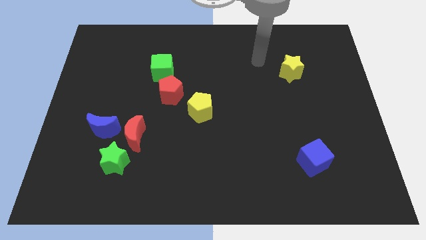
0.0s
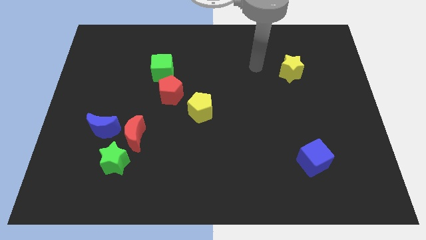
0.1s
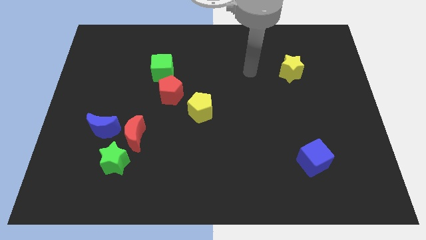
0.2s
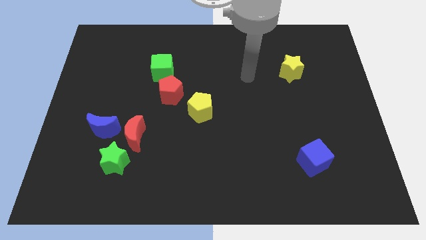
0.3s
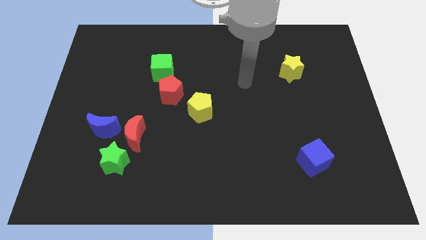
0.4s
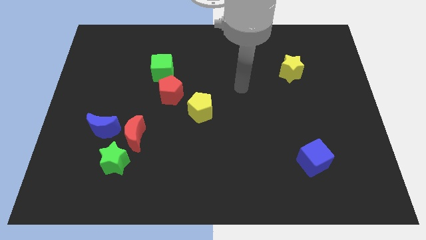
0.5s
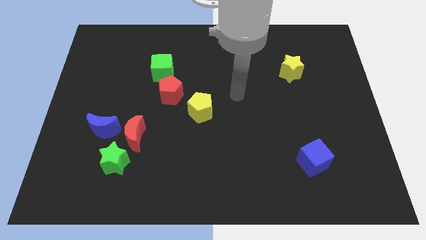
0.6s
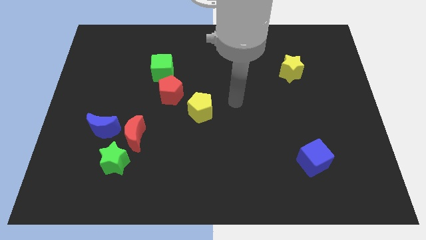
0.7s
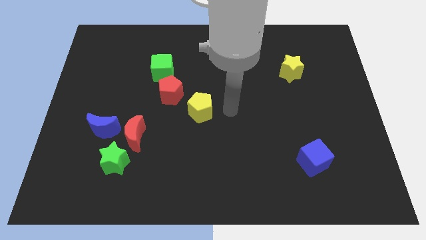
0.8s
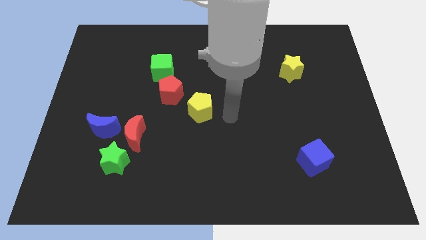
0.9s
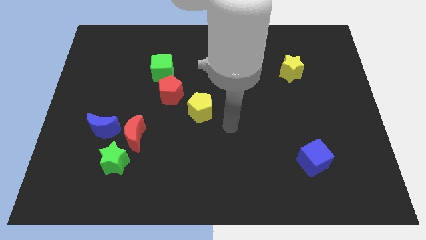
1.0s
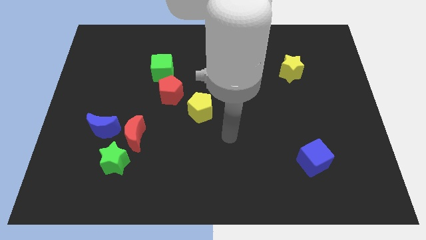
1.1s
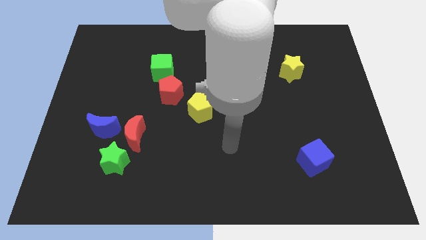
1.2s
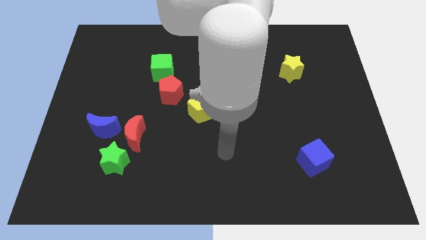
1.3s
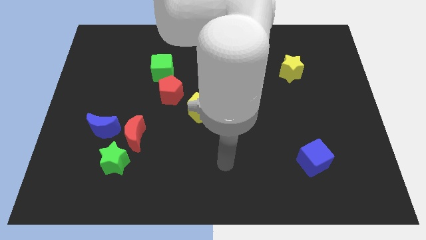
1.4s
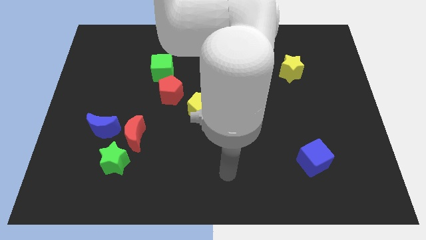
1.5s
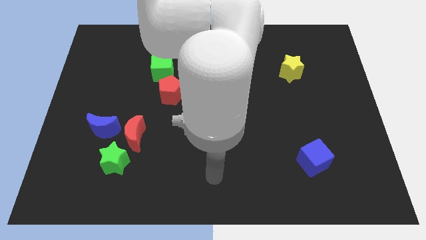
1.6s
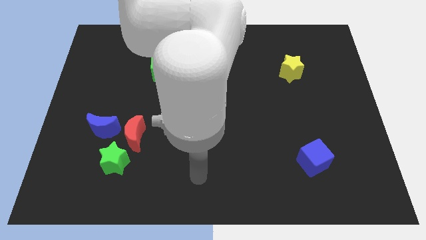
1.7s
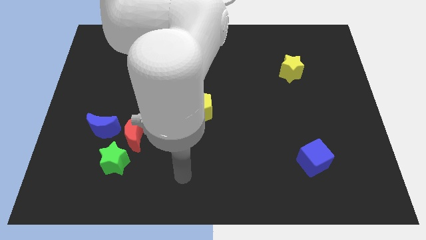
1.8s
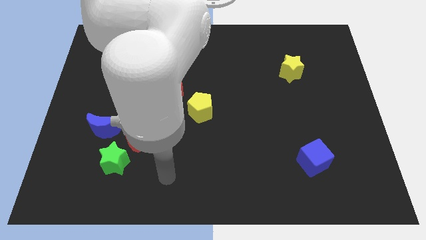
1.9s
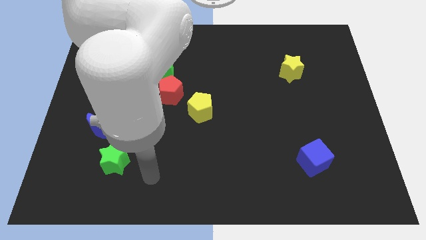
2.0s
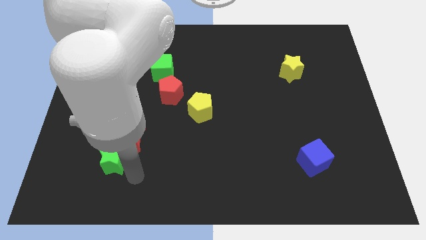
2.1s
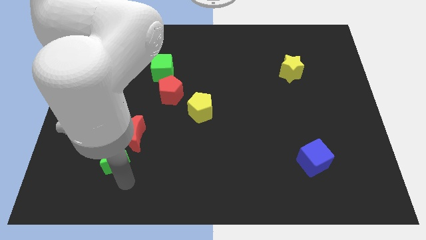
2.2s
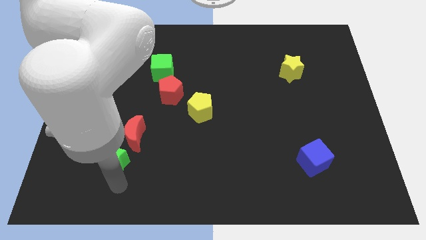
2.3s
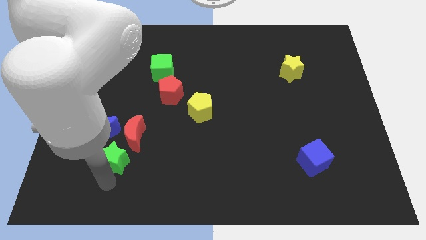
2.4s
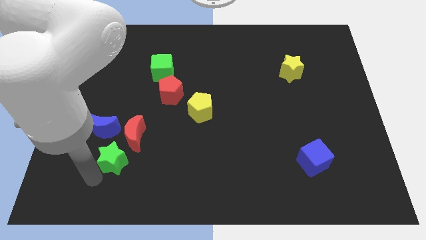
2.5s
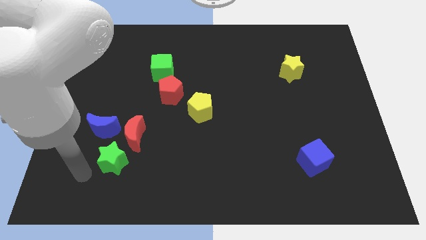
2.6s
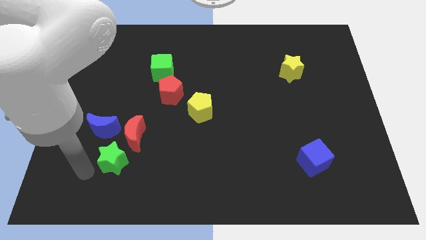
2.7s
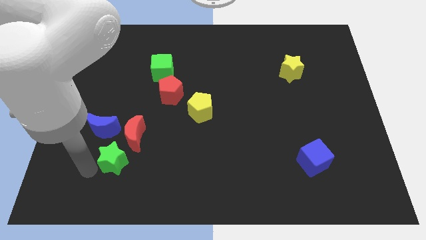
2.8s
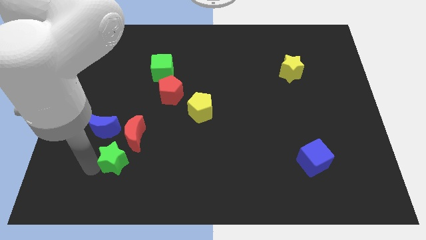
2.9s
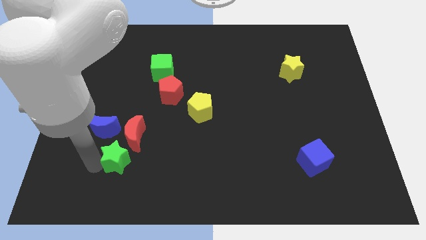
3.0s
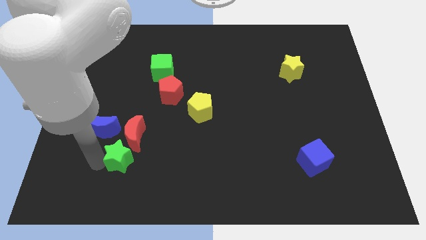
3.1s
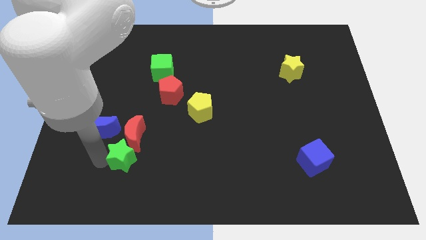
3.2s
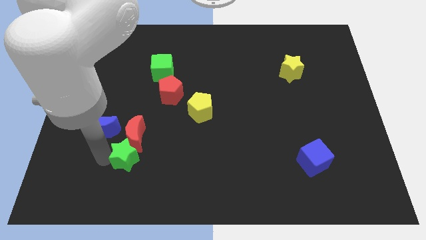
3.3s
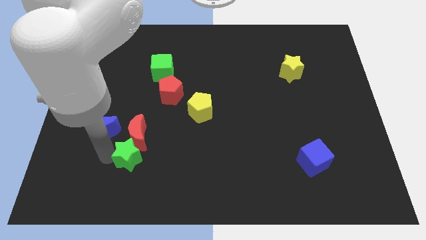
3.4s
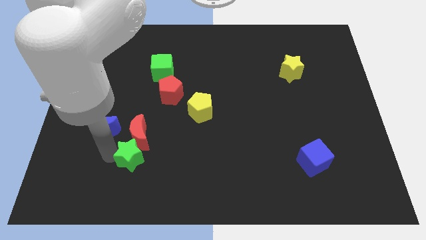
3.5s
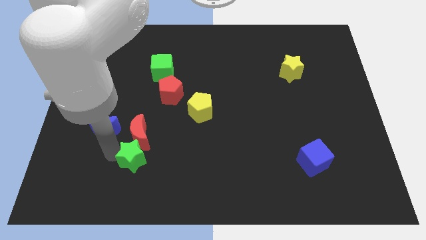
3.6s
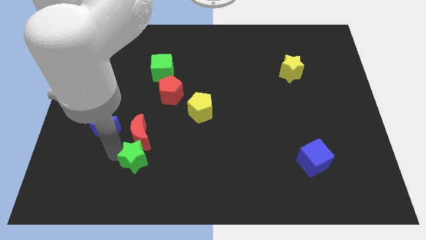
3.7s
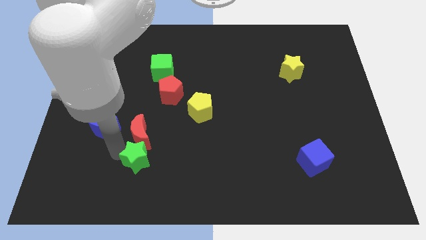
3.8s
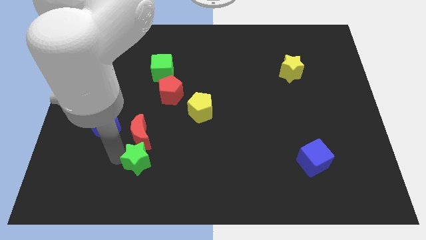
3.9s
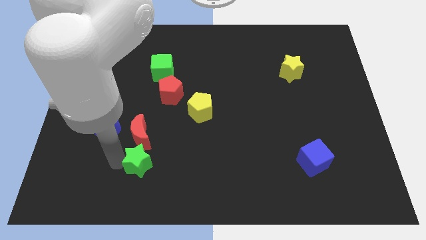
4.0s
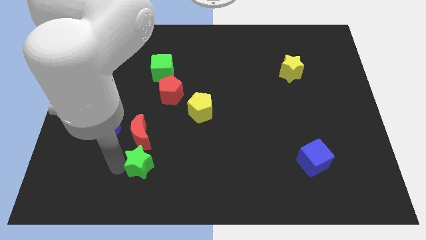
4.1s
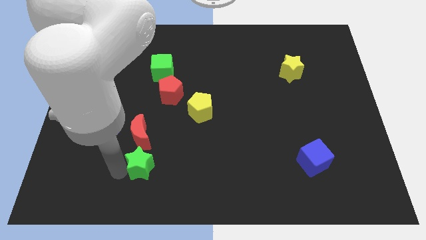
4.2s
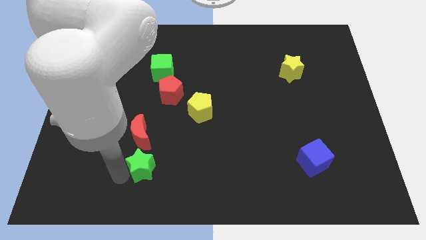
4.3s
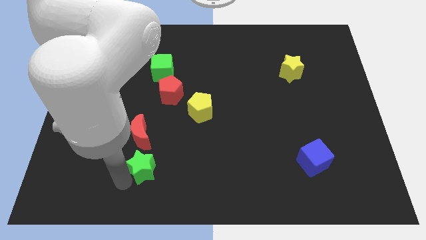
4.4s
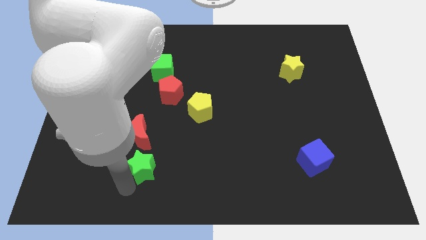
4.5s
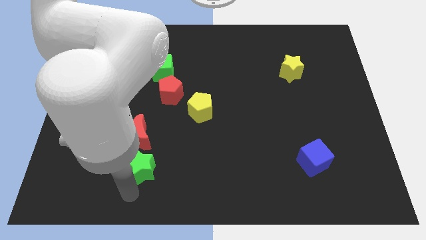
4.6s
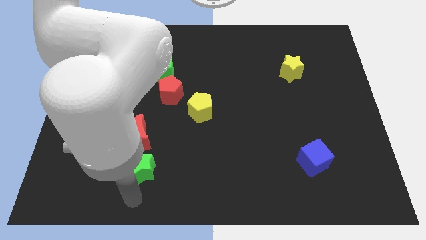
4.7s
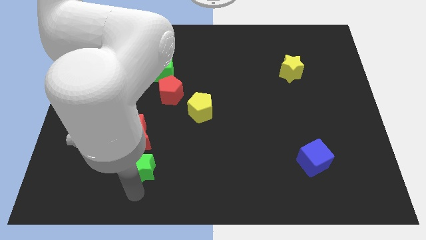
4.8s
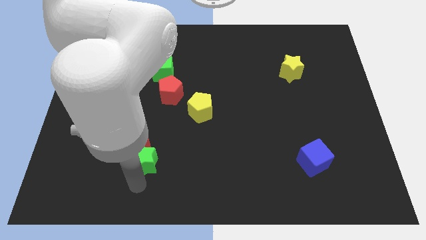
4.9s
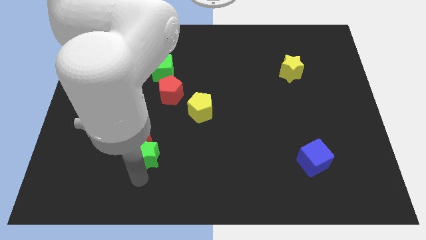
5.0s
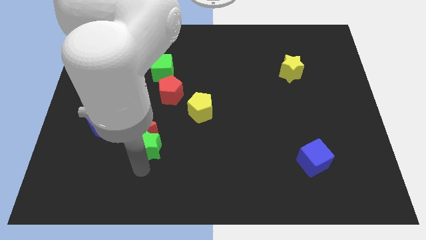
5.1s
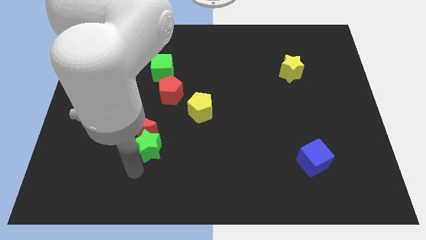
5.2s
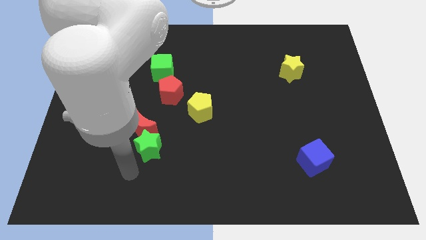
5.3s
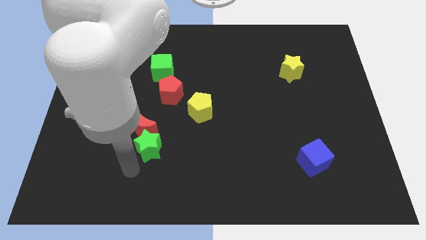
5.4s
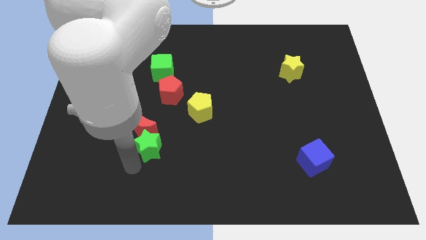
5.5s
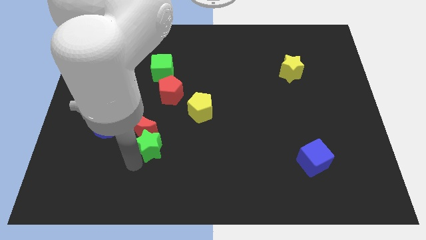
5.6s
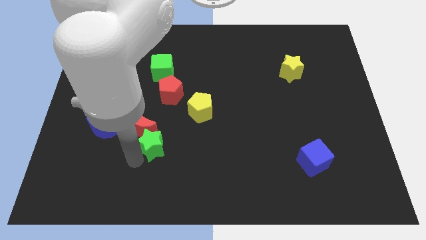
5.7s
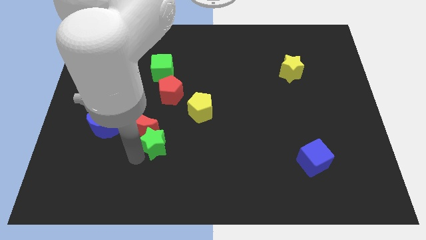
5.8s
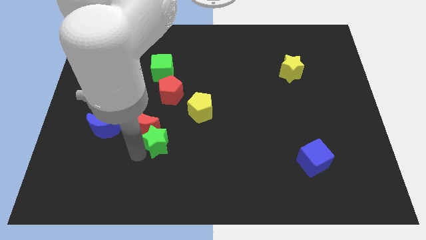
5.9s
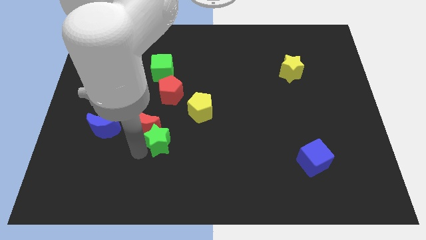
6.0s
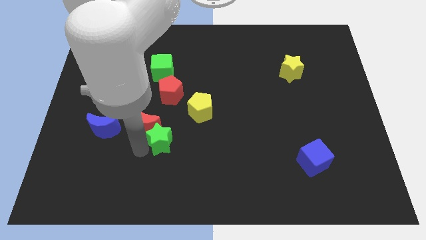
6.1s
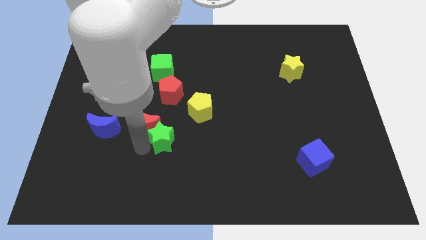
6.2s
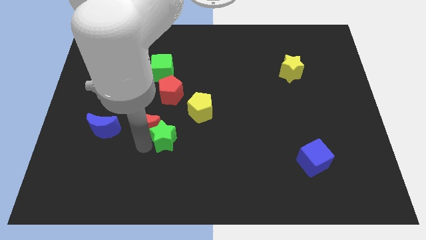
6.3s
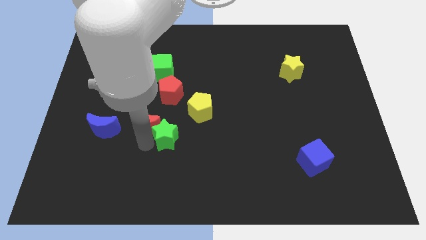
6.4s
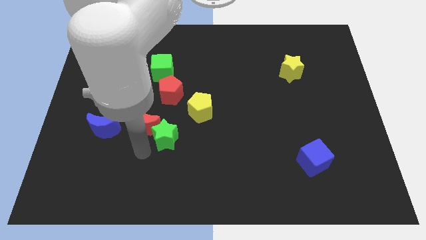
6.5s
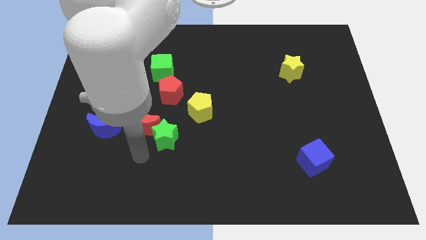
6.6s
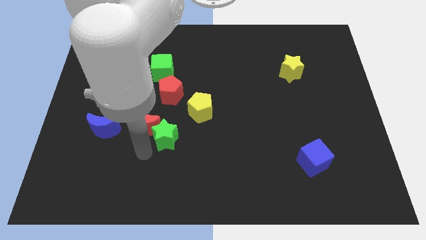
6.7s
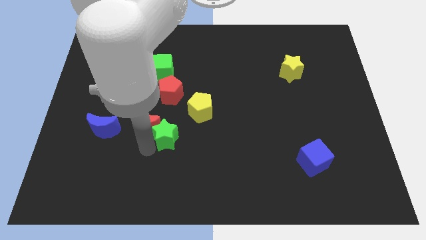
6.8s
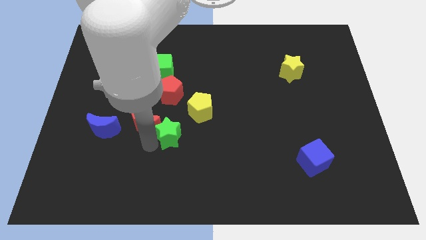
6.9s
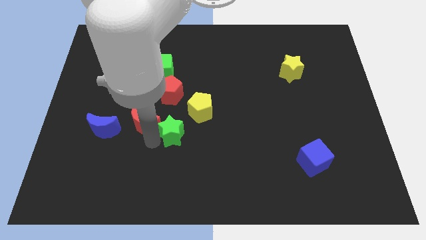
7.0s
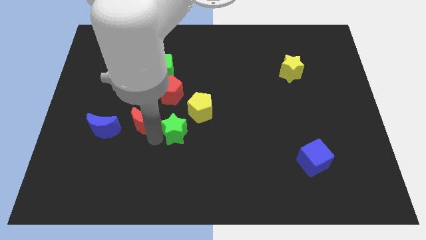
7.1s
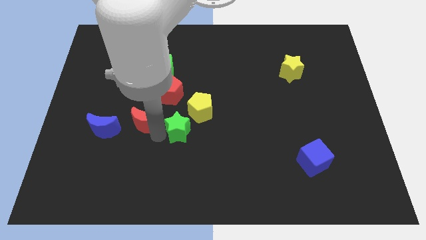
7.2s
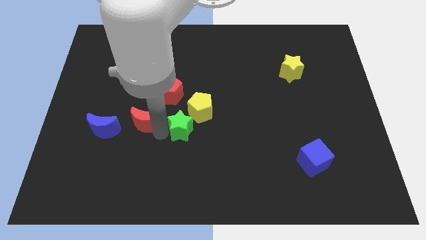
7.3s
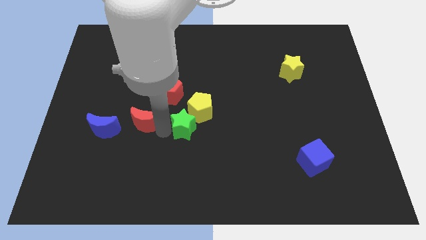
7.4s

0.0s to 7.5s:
move the green star towards the yellow pentagon

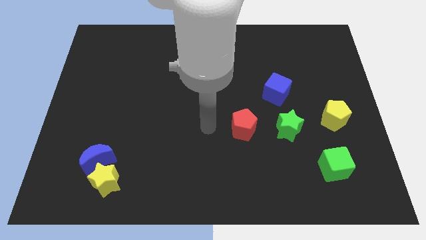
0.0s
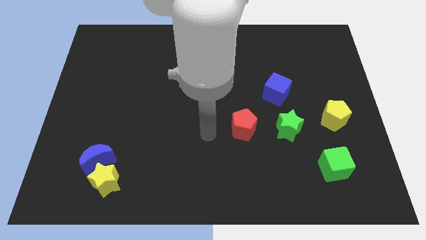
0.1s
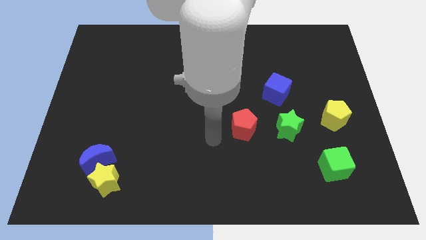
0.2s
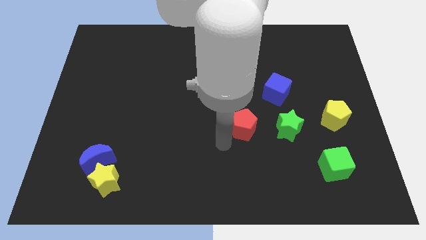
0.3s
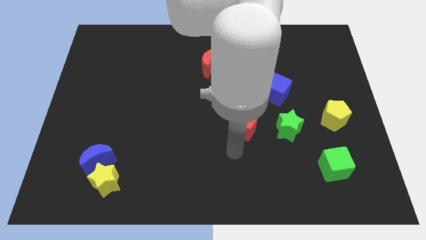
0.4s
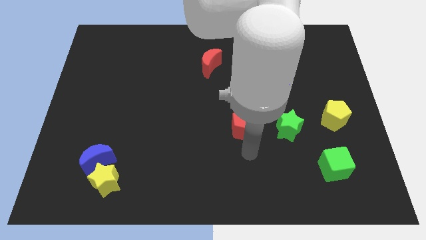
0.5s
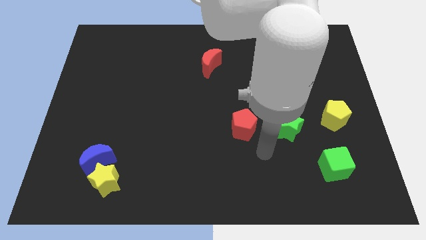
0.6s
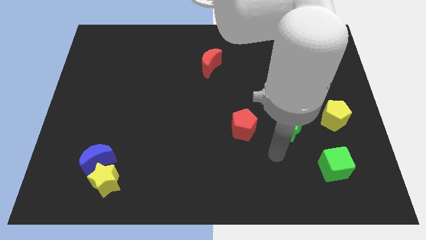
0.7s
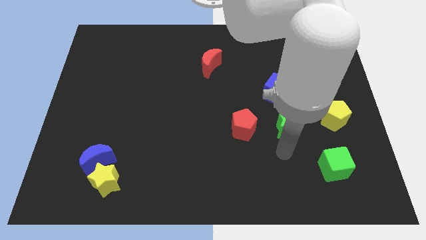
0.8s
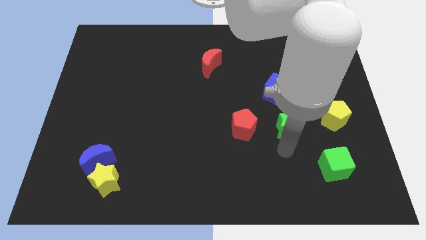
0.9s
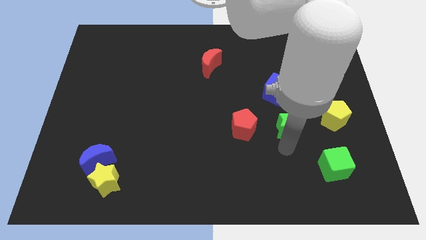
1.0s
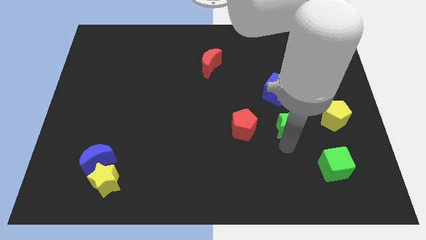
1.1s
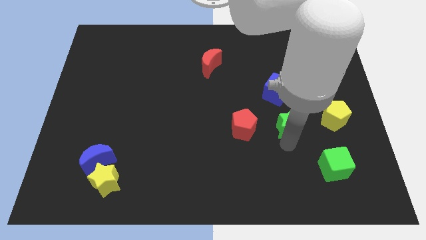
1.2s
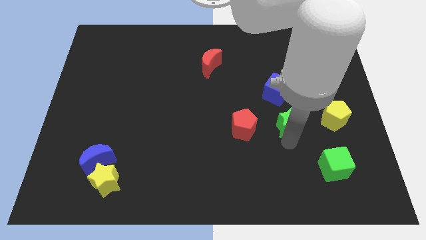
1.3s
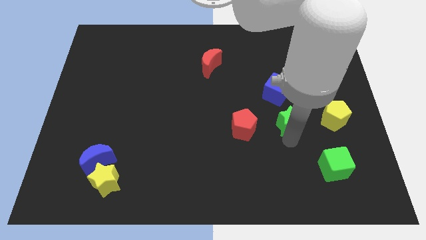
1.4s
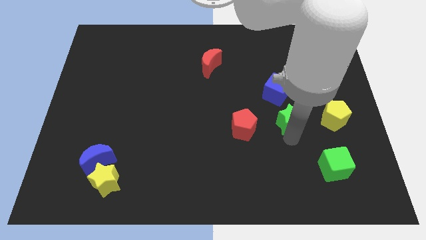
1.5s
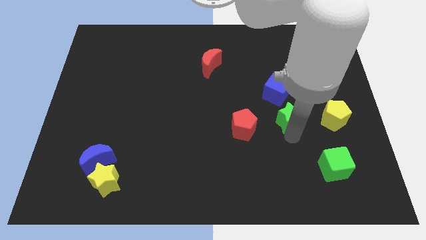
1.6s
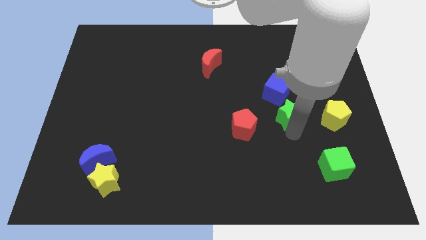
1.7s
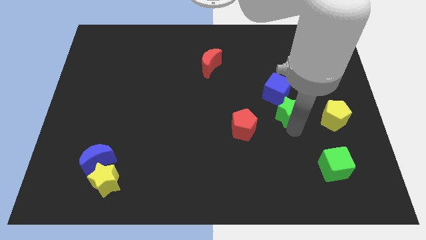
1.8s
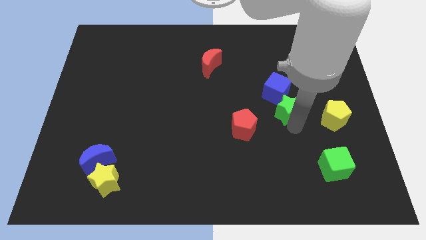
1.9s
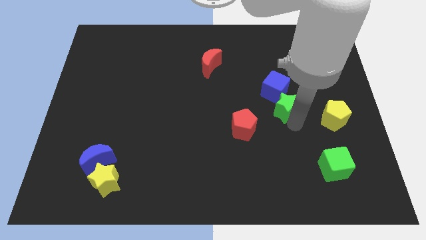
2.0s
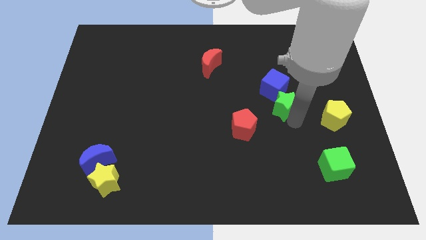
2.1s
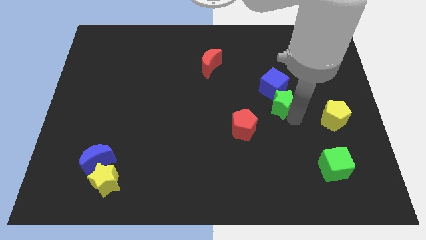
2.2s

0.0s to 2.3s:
slide the green star next to the blue cube
